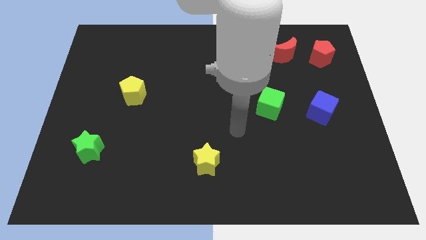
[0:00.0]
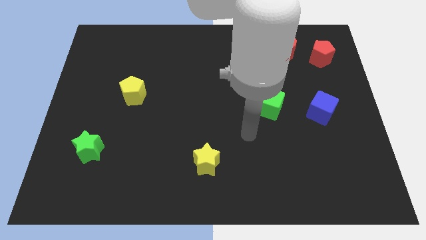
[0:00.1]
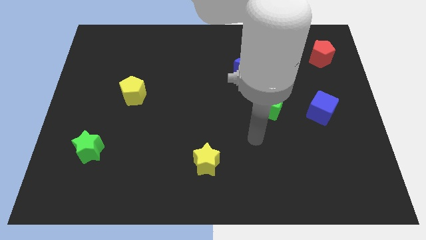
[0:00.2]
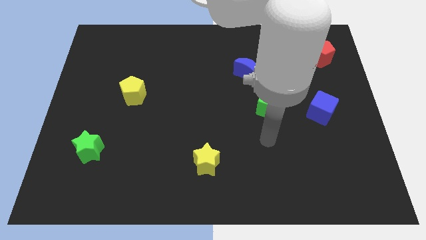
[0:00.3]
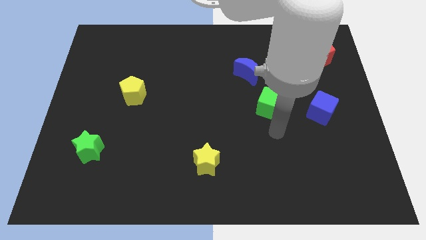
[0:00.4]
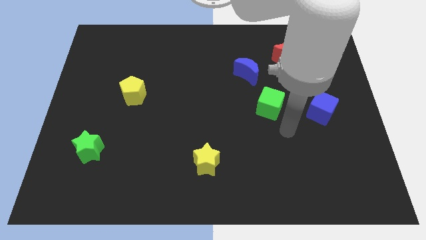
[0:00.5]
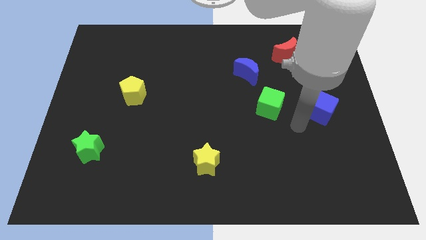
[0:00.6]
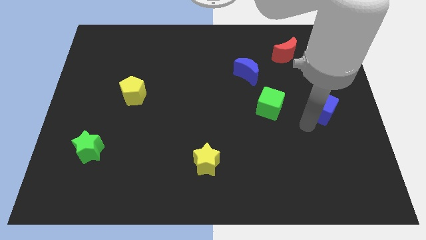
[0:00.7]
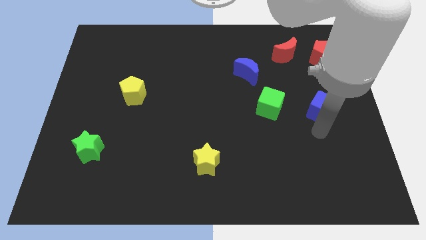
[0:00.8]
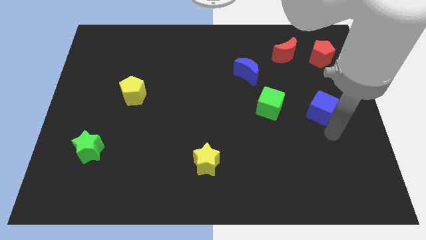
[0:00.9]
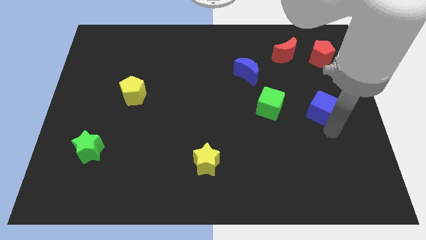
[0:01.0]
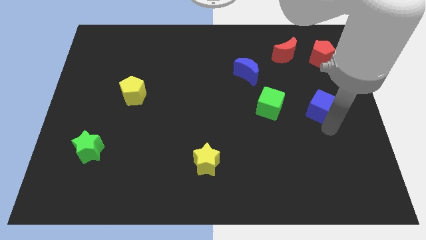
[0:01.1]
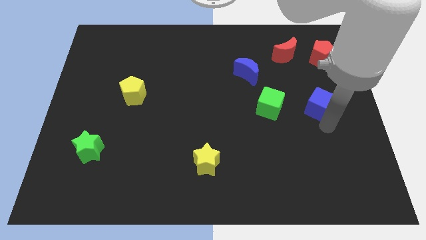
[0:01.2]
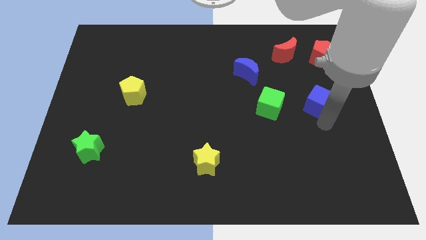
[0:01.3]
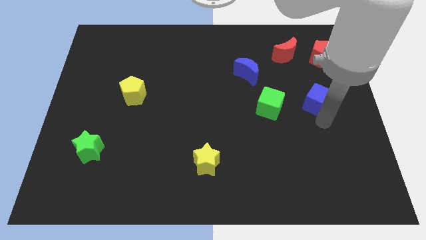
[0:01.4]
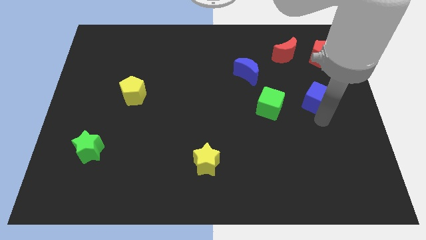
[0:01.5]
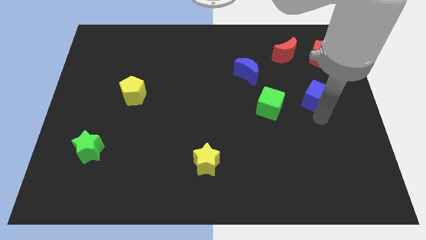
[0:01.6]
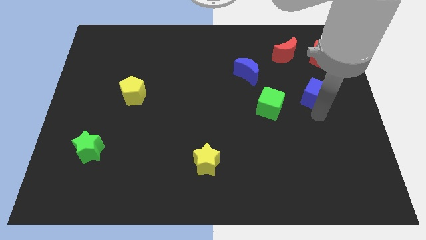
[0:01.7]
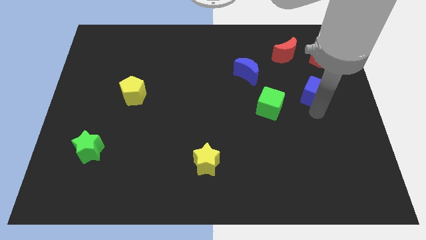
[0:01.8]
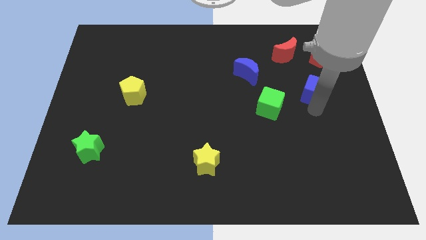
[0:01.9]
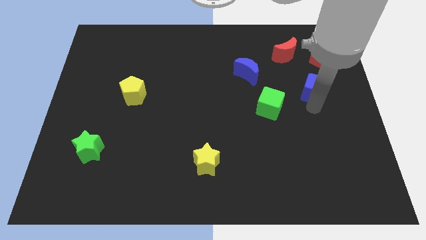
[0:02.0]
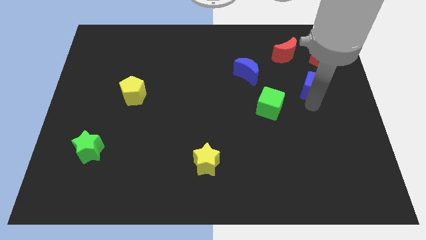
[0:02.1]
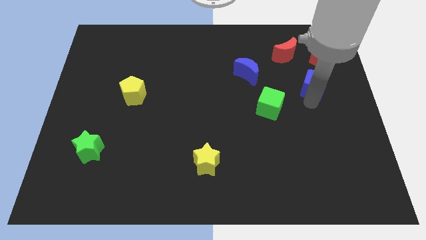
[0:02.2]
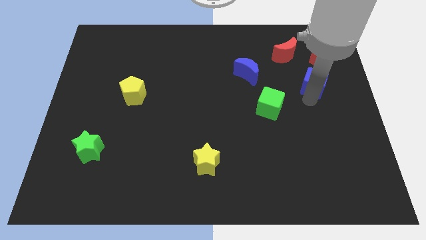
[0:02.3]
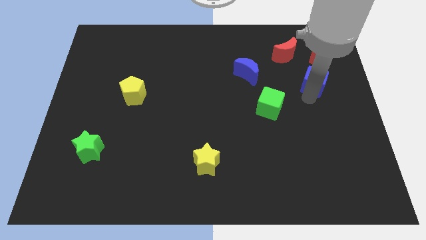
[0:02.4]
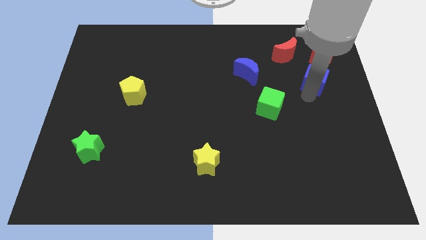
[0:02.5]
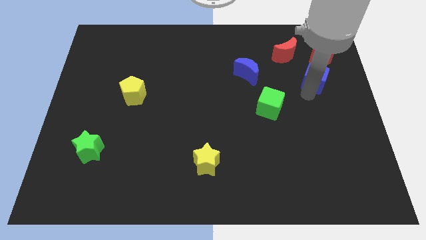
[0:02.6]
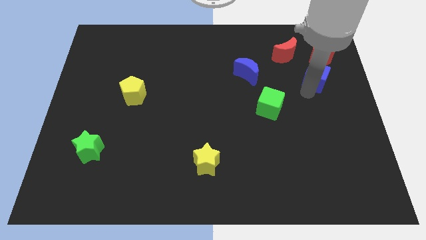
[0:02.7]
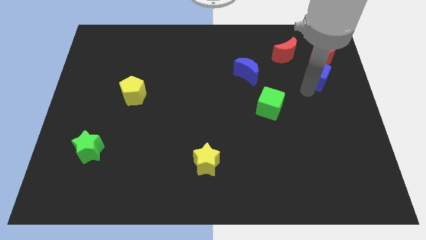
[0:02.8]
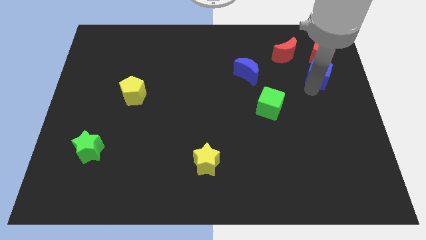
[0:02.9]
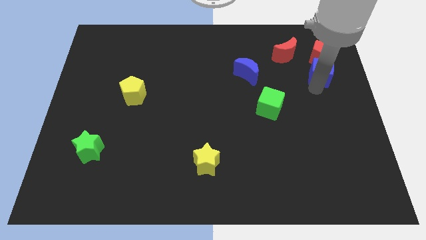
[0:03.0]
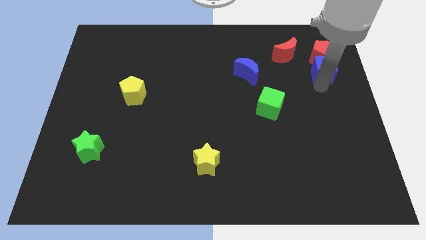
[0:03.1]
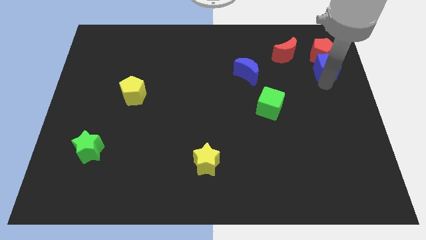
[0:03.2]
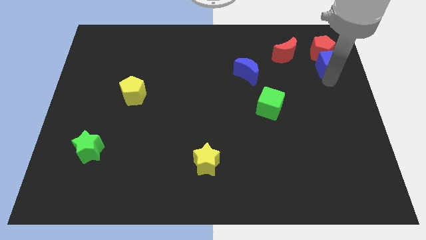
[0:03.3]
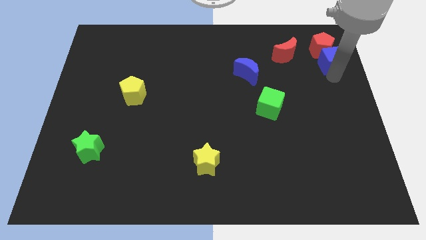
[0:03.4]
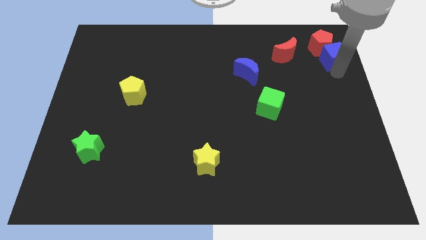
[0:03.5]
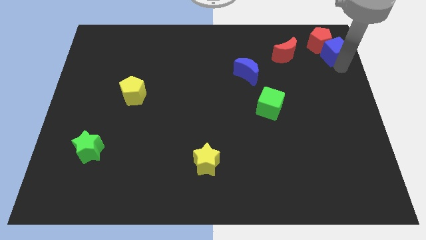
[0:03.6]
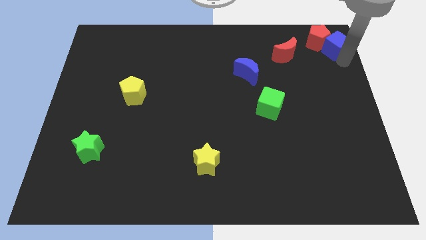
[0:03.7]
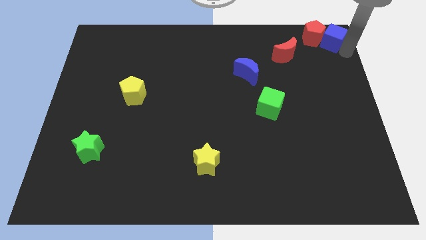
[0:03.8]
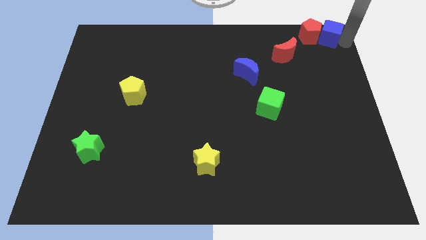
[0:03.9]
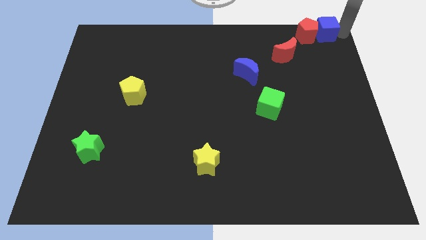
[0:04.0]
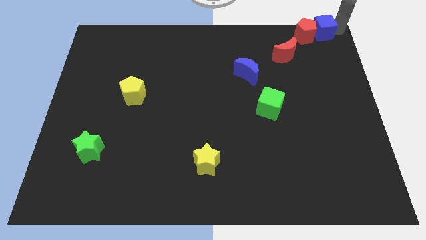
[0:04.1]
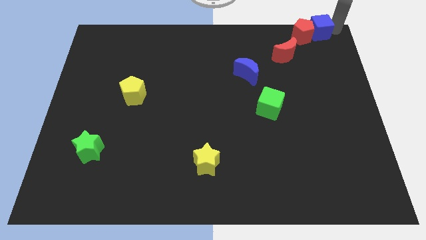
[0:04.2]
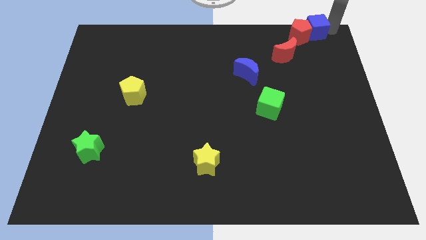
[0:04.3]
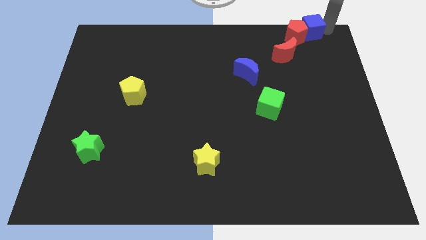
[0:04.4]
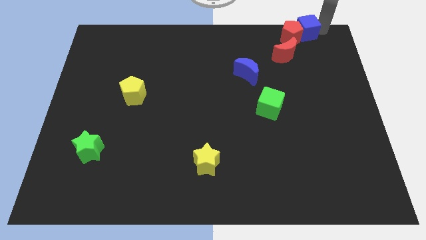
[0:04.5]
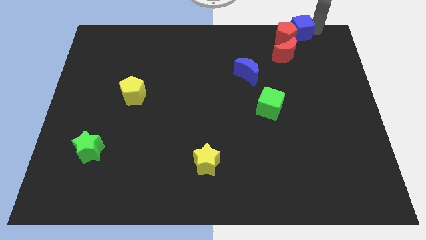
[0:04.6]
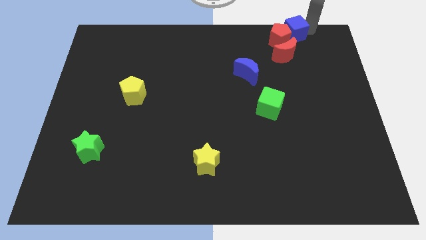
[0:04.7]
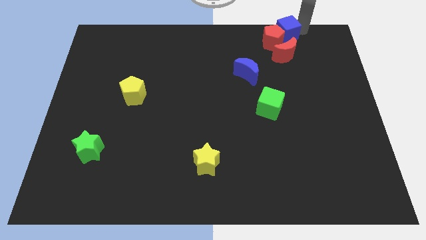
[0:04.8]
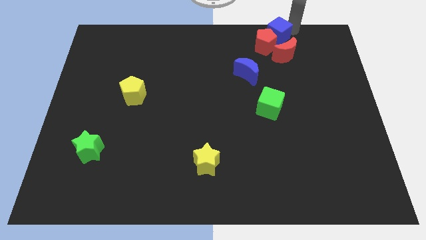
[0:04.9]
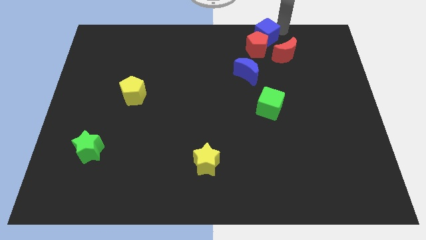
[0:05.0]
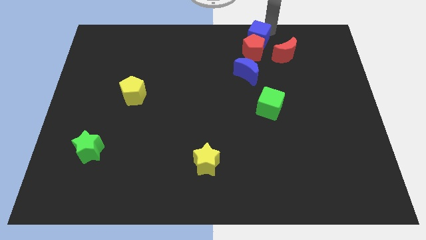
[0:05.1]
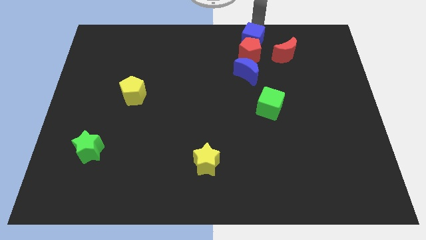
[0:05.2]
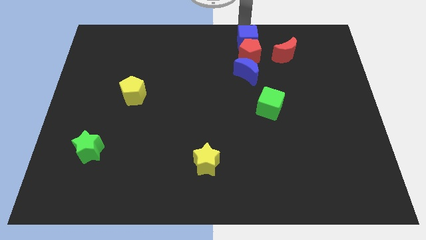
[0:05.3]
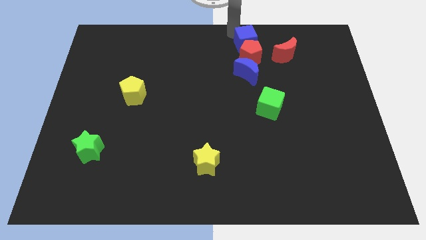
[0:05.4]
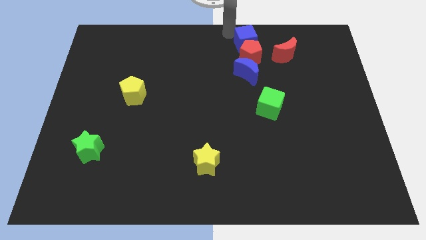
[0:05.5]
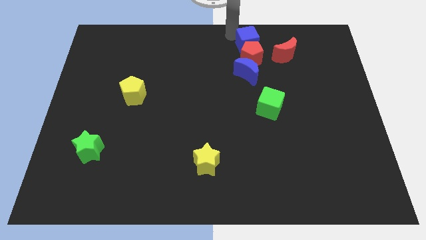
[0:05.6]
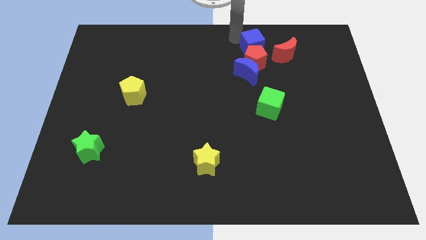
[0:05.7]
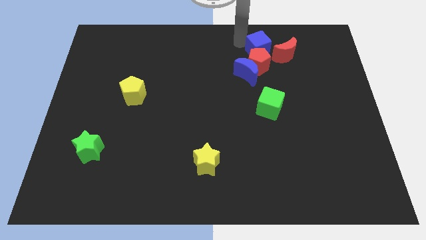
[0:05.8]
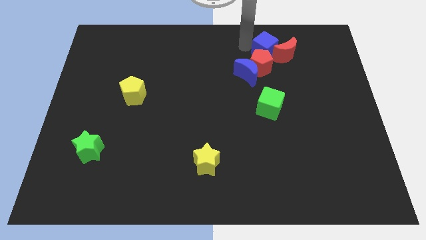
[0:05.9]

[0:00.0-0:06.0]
move the blue cube to the red moon

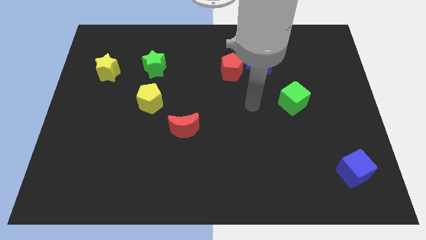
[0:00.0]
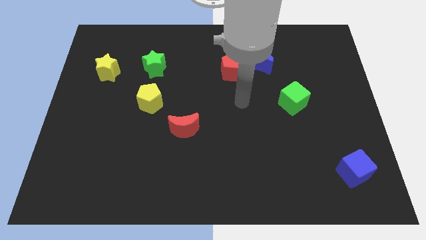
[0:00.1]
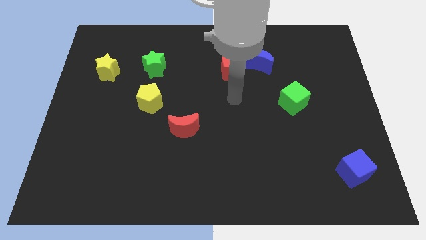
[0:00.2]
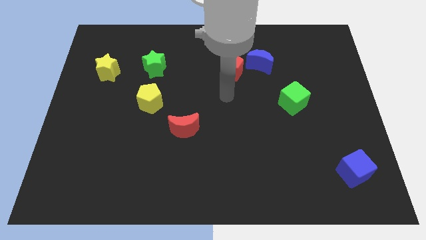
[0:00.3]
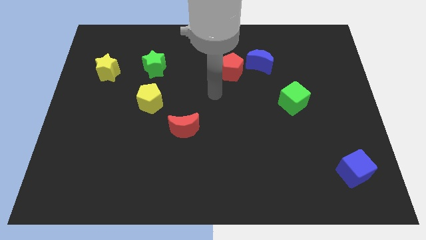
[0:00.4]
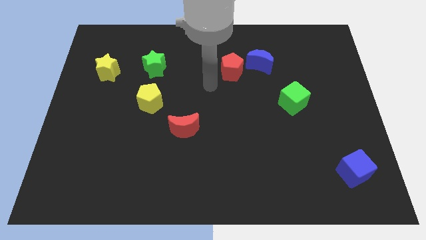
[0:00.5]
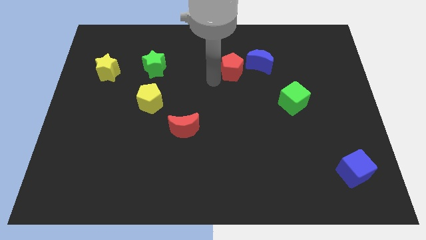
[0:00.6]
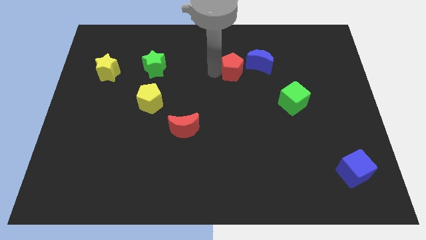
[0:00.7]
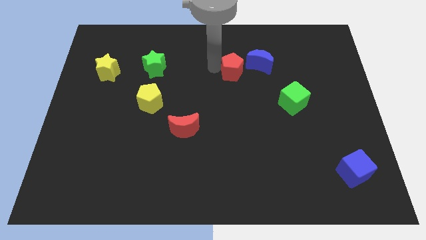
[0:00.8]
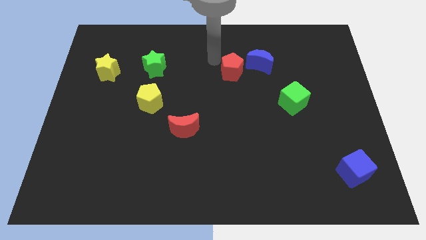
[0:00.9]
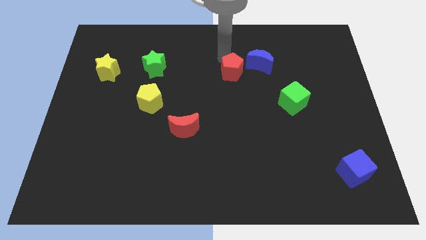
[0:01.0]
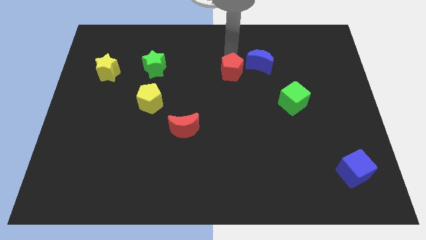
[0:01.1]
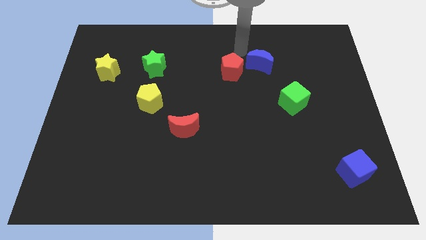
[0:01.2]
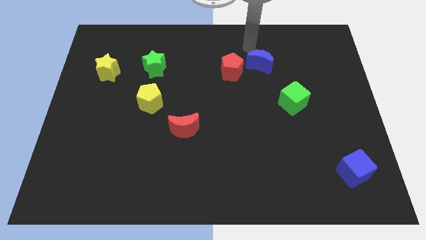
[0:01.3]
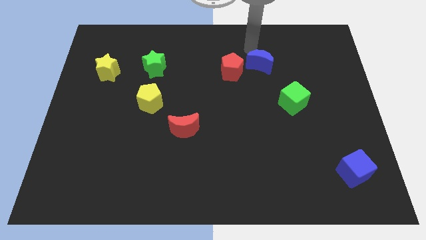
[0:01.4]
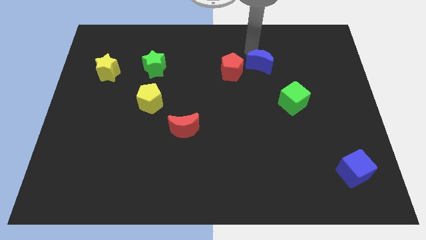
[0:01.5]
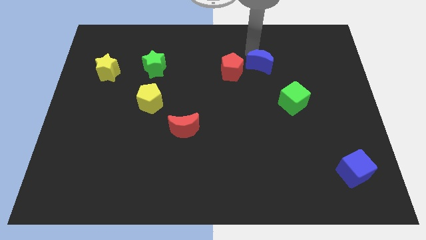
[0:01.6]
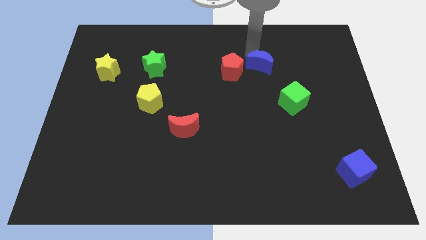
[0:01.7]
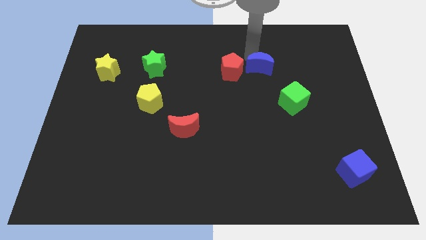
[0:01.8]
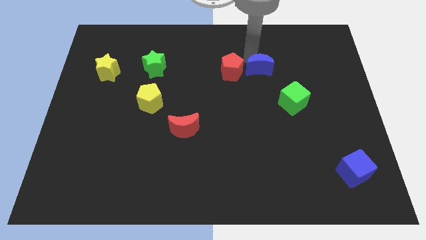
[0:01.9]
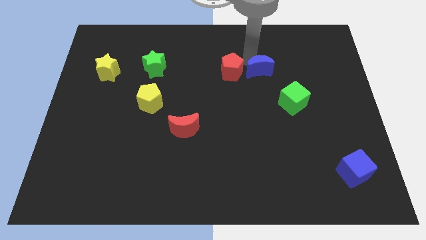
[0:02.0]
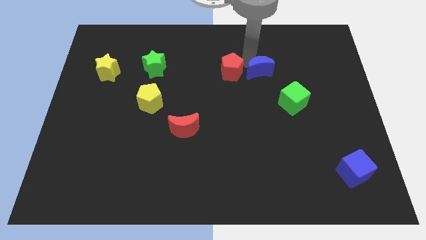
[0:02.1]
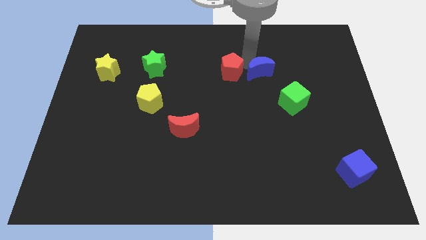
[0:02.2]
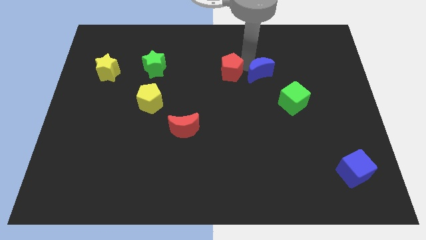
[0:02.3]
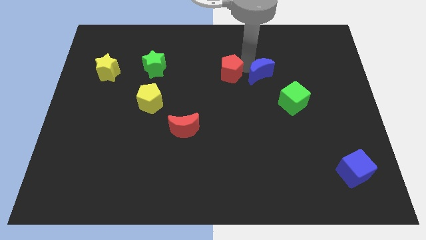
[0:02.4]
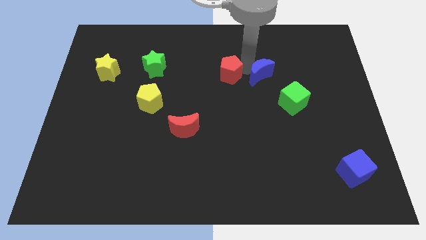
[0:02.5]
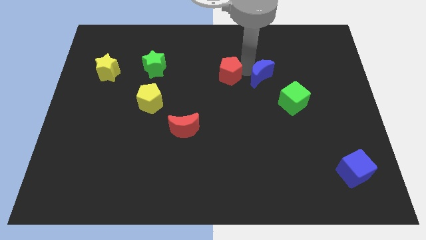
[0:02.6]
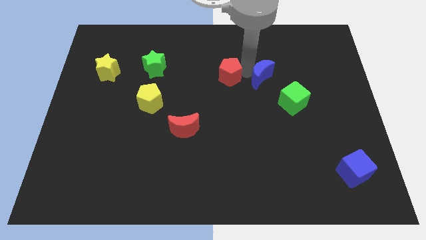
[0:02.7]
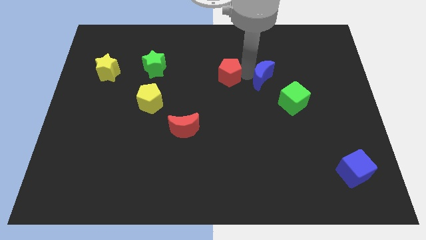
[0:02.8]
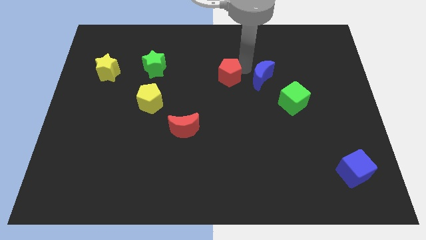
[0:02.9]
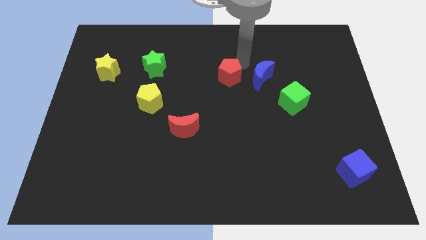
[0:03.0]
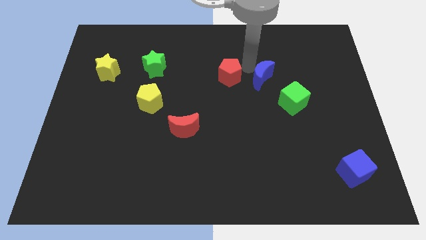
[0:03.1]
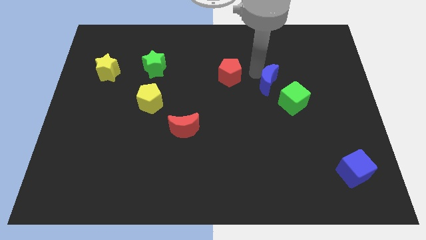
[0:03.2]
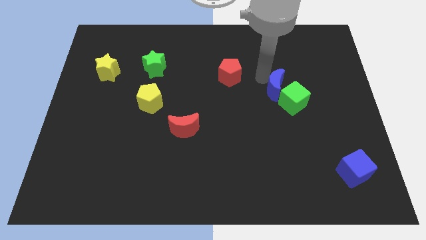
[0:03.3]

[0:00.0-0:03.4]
slide the blue moon to the green cube
